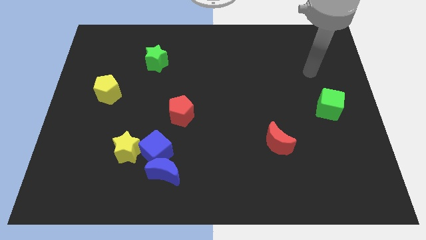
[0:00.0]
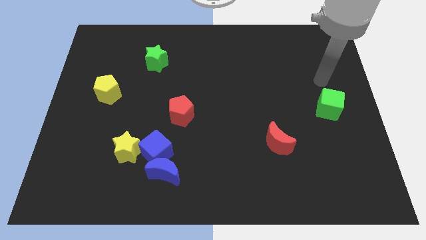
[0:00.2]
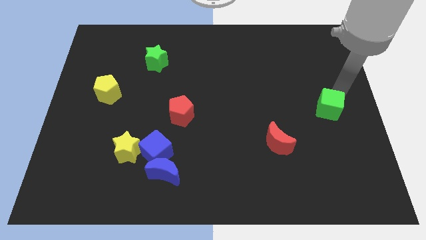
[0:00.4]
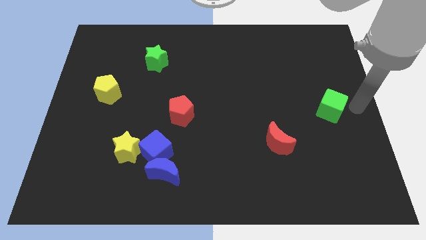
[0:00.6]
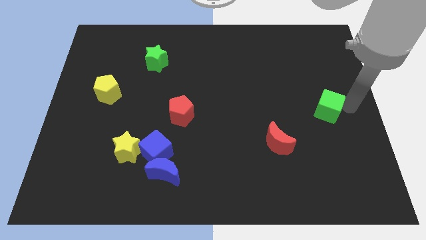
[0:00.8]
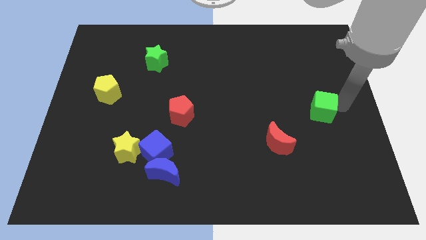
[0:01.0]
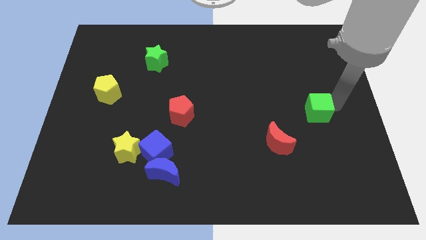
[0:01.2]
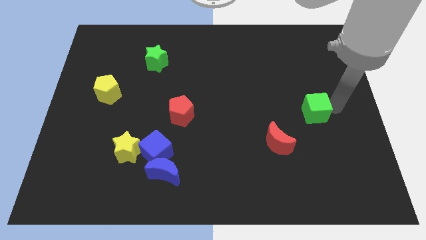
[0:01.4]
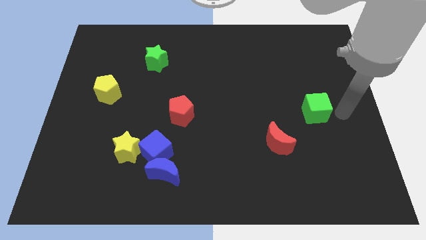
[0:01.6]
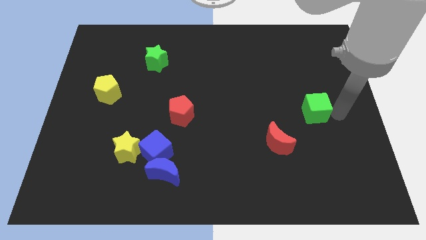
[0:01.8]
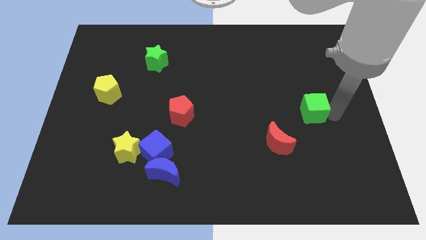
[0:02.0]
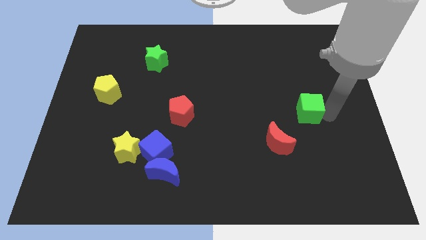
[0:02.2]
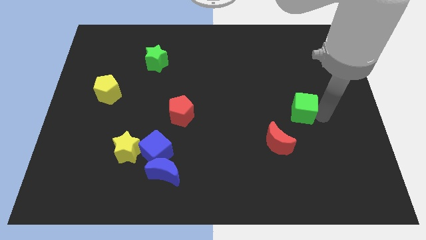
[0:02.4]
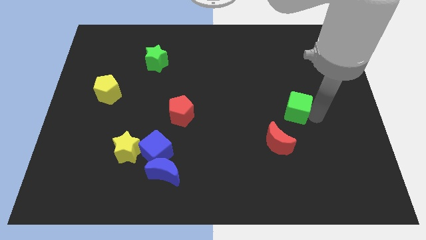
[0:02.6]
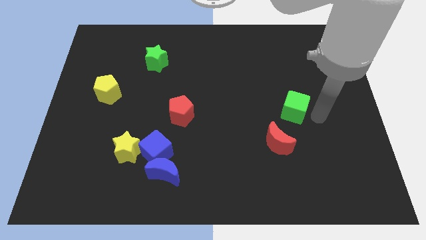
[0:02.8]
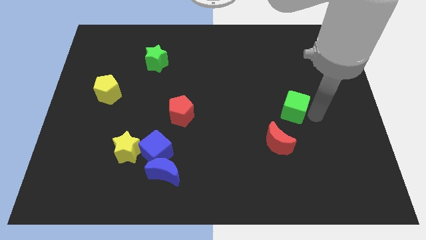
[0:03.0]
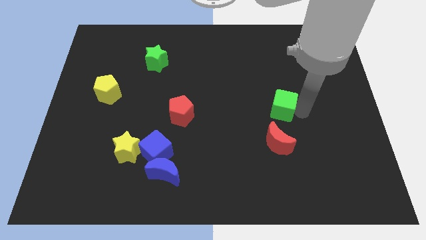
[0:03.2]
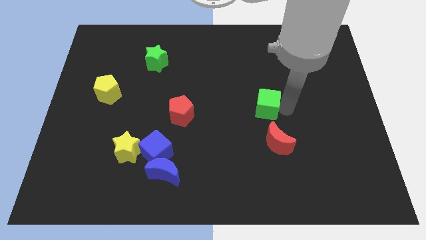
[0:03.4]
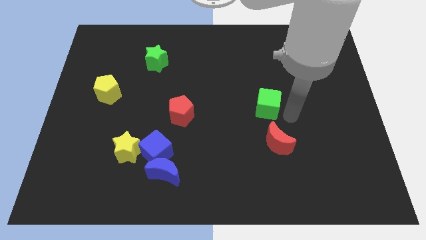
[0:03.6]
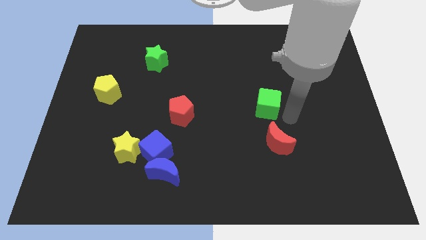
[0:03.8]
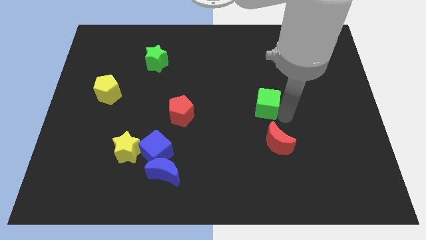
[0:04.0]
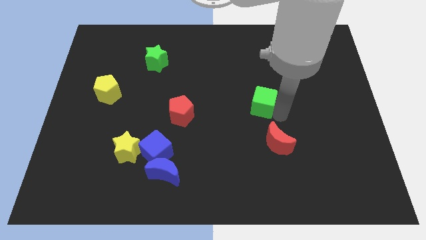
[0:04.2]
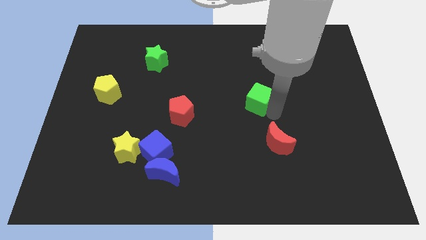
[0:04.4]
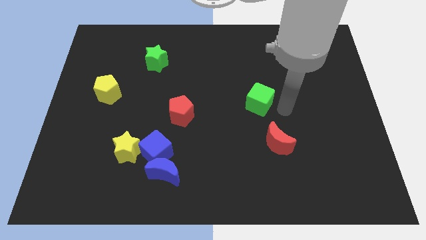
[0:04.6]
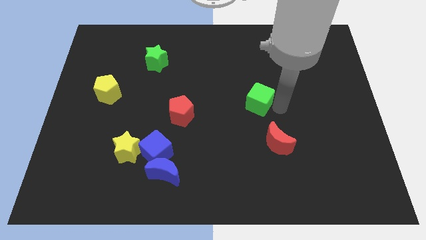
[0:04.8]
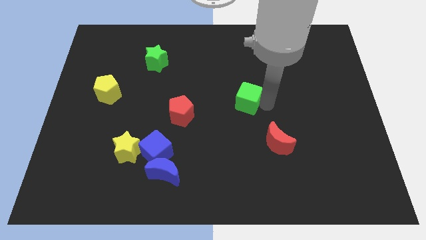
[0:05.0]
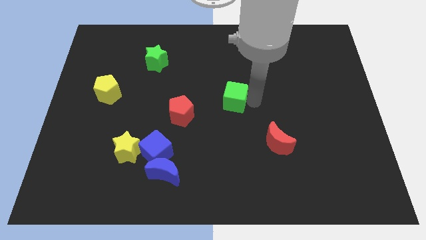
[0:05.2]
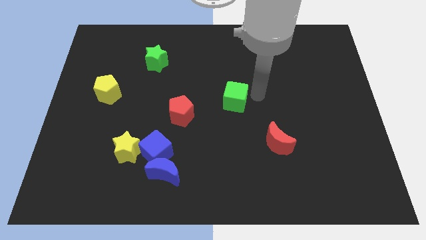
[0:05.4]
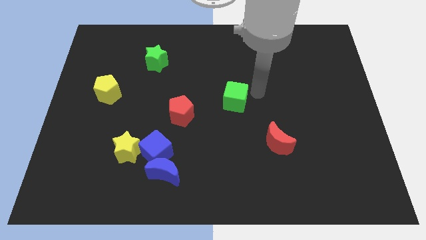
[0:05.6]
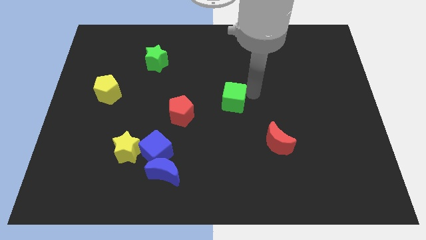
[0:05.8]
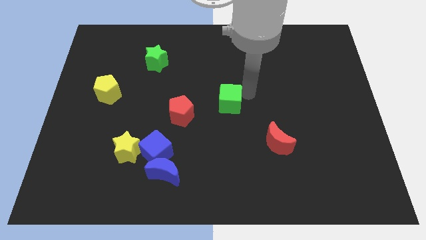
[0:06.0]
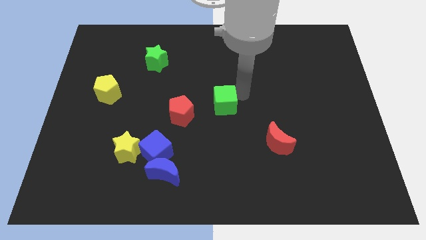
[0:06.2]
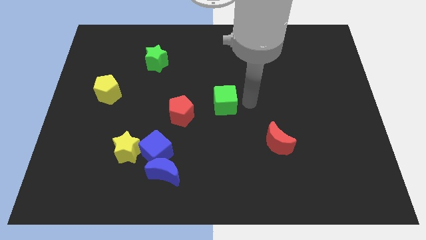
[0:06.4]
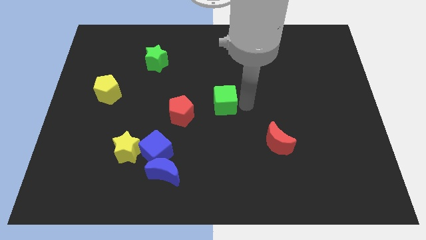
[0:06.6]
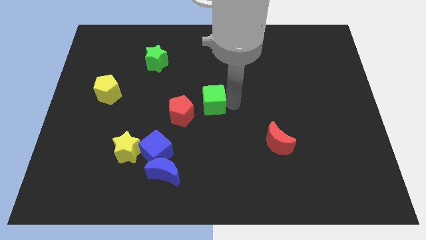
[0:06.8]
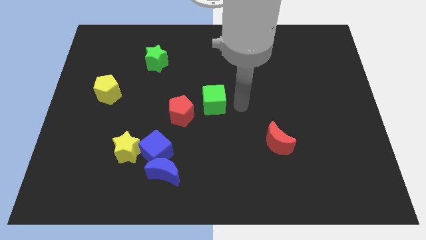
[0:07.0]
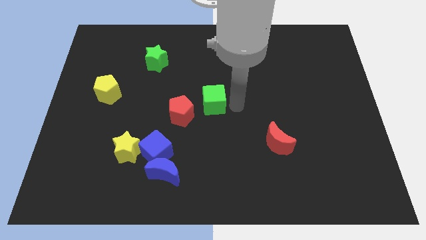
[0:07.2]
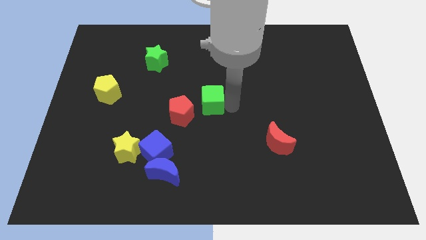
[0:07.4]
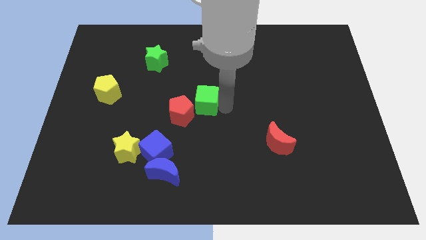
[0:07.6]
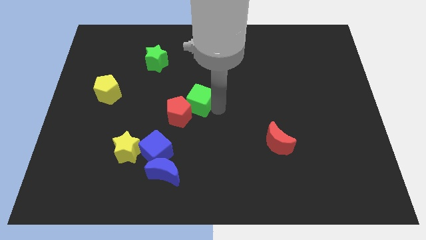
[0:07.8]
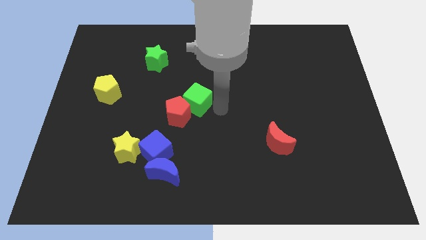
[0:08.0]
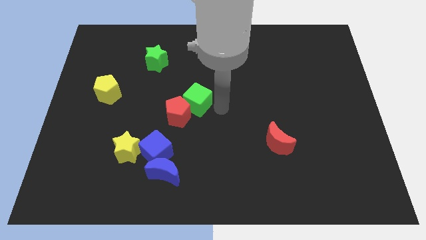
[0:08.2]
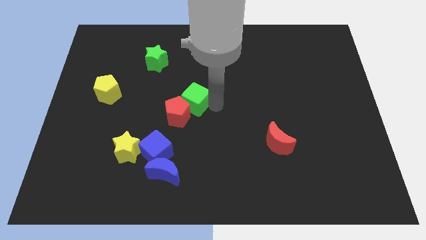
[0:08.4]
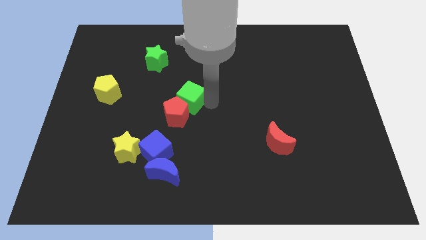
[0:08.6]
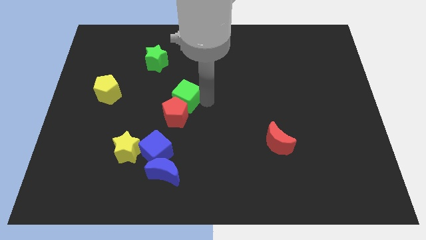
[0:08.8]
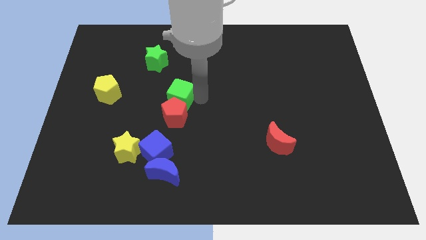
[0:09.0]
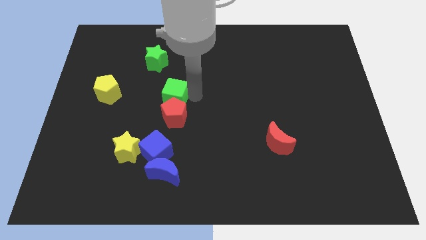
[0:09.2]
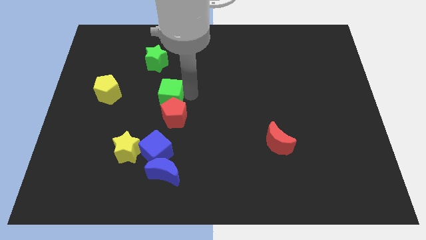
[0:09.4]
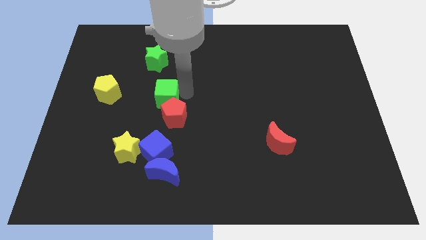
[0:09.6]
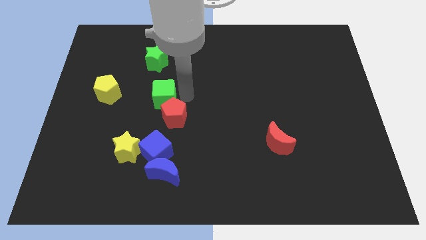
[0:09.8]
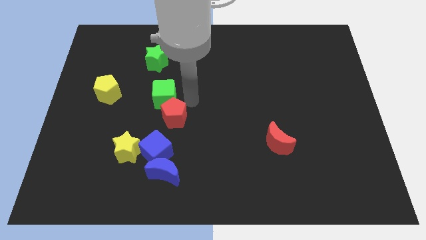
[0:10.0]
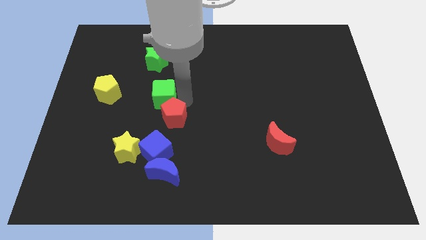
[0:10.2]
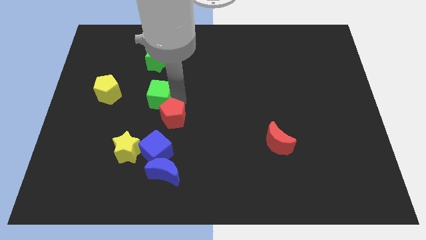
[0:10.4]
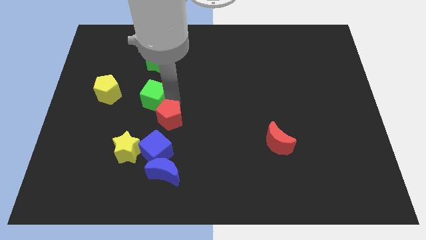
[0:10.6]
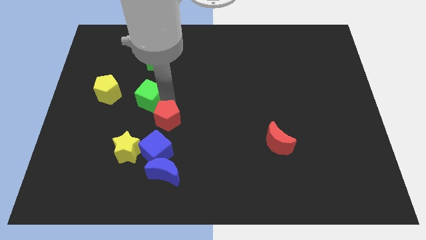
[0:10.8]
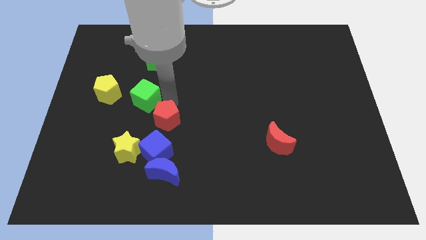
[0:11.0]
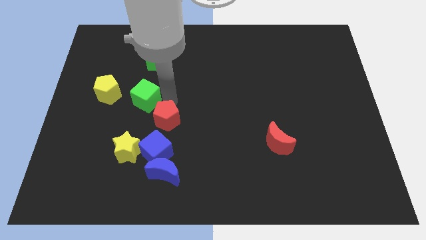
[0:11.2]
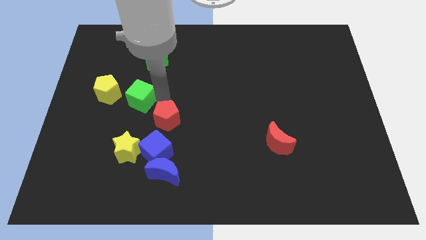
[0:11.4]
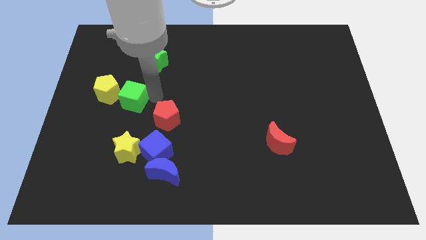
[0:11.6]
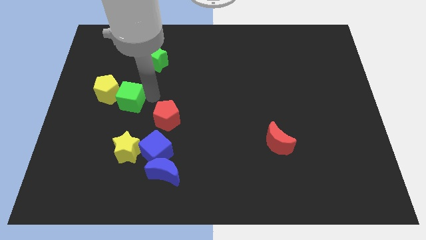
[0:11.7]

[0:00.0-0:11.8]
push the green cube towards the yellow pentagon

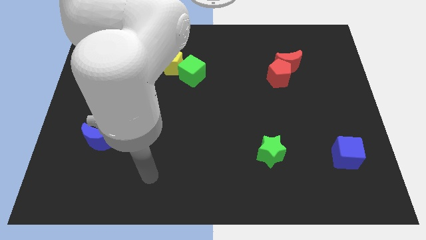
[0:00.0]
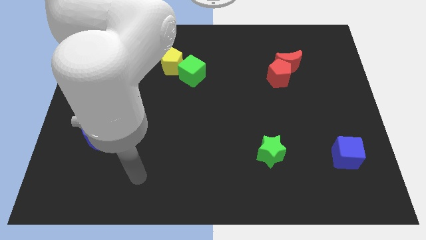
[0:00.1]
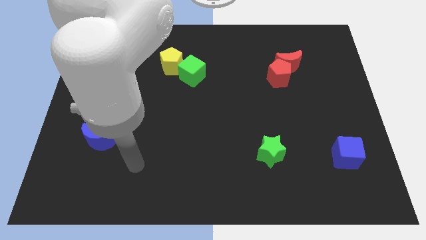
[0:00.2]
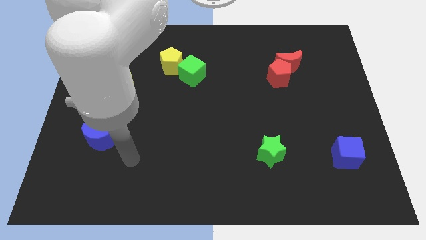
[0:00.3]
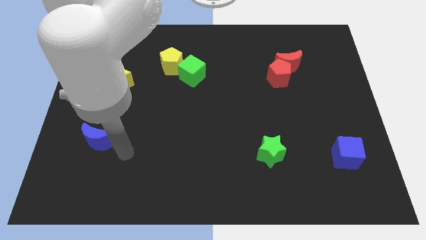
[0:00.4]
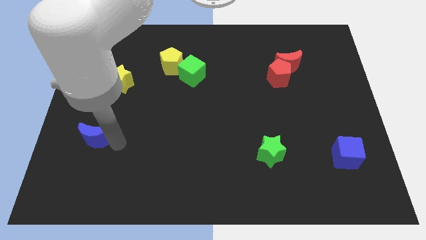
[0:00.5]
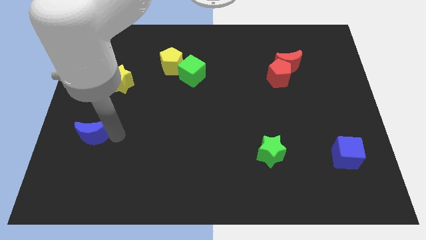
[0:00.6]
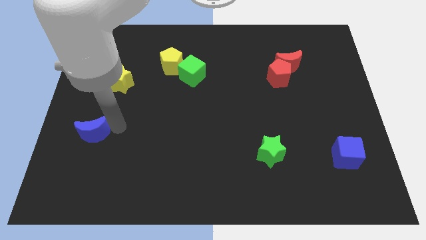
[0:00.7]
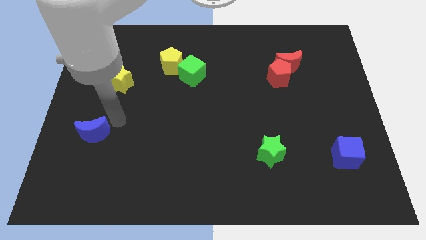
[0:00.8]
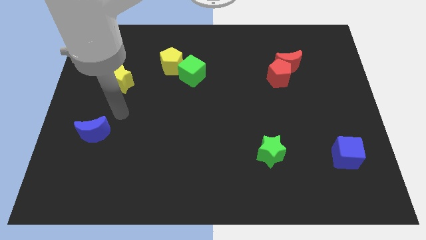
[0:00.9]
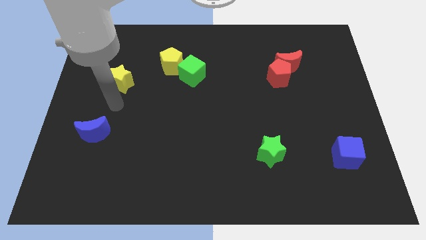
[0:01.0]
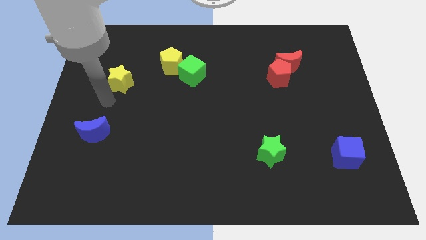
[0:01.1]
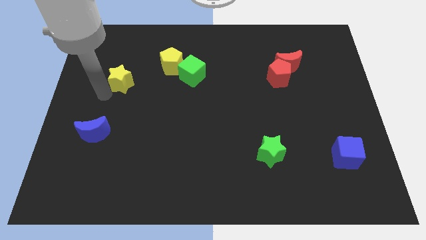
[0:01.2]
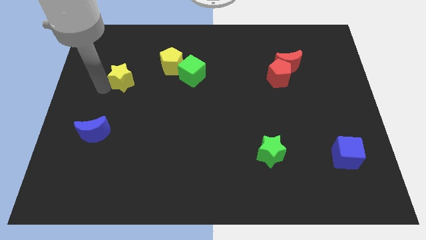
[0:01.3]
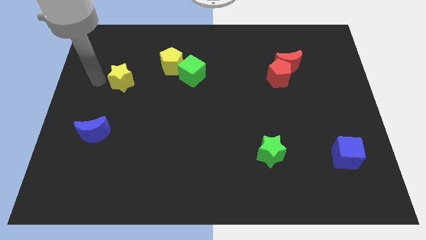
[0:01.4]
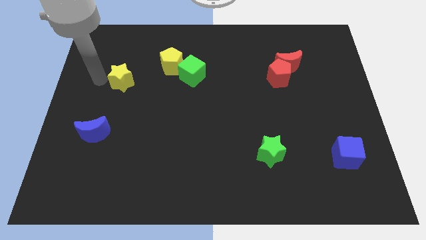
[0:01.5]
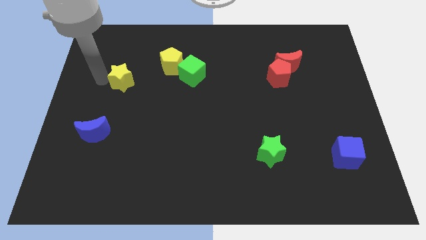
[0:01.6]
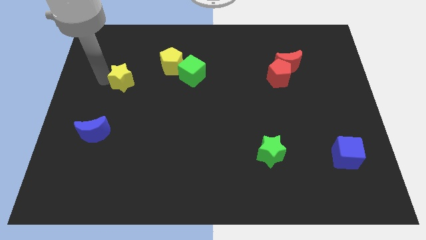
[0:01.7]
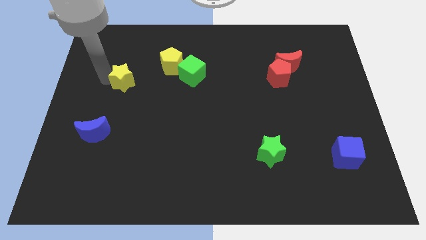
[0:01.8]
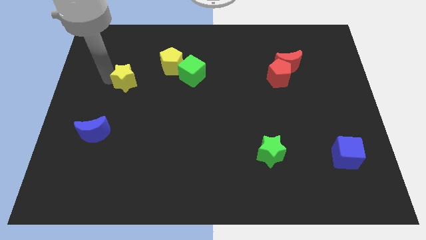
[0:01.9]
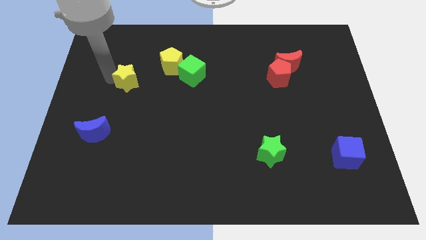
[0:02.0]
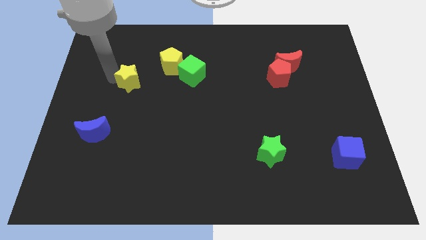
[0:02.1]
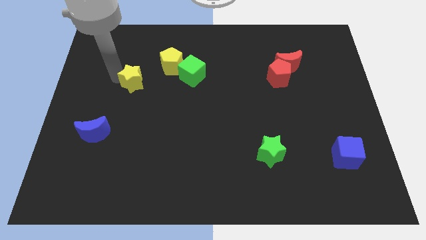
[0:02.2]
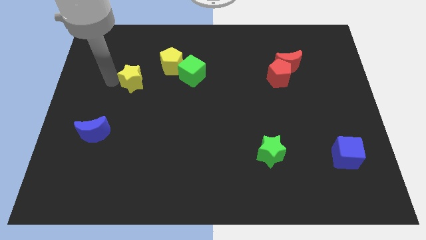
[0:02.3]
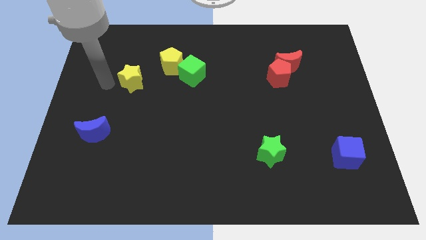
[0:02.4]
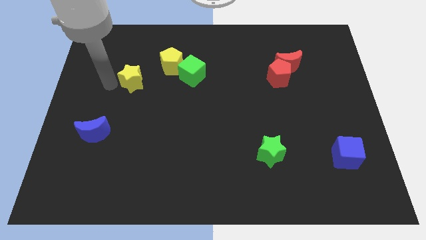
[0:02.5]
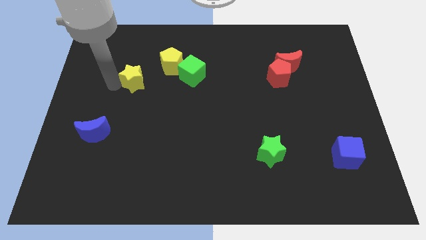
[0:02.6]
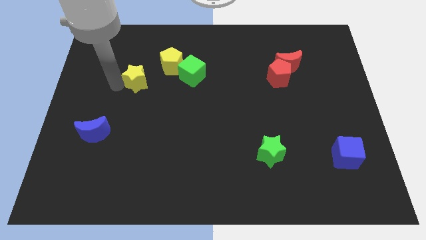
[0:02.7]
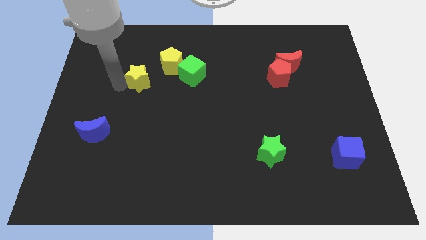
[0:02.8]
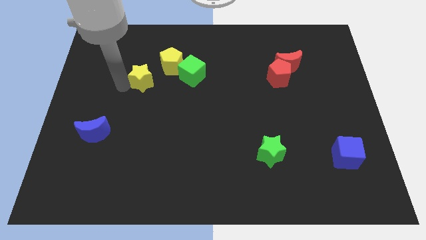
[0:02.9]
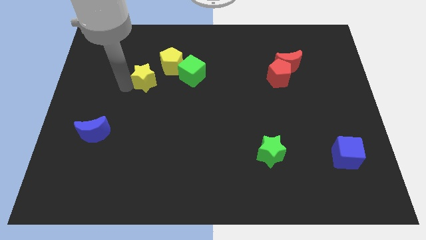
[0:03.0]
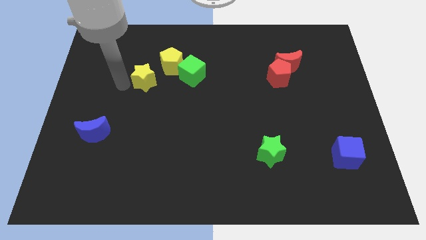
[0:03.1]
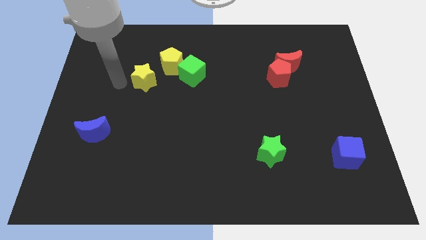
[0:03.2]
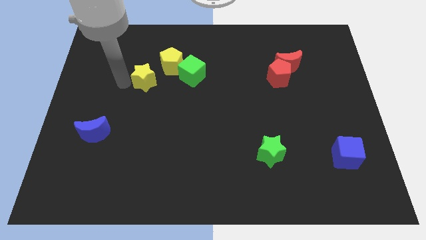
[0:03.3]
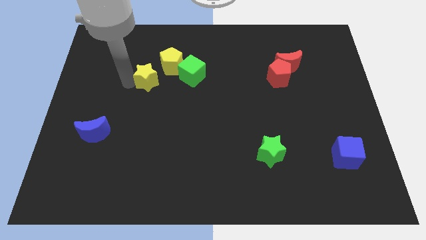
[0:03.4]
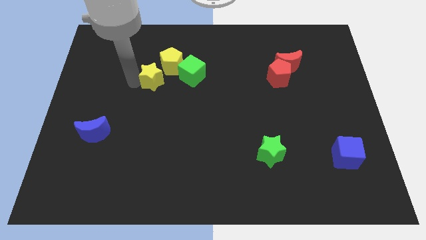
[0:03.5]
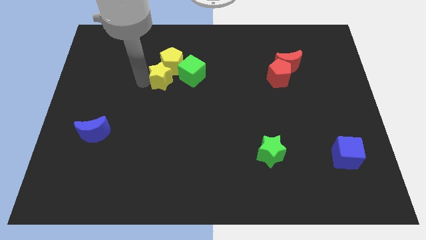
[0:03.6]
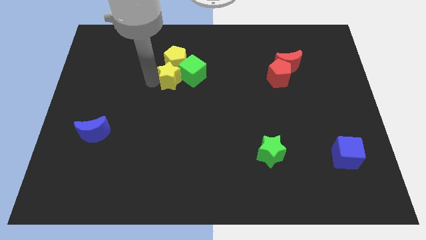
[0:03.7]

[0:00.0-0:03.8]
put the yellow star towards the green cube
